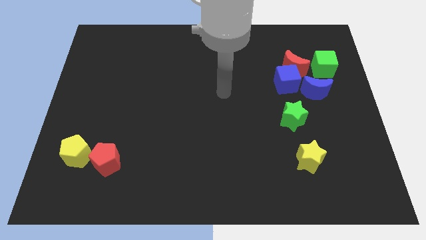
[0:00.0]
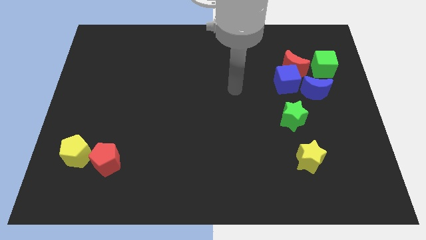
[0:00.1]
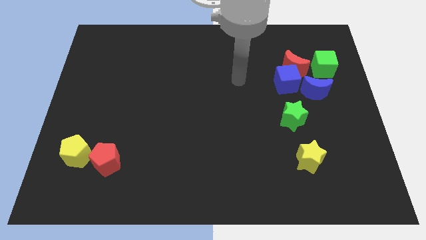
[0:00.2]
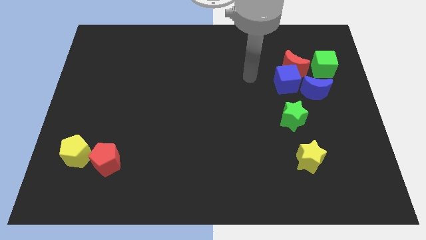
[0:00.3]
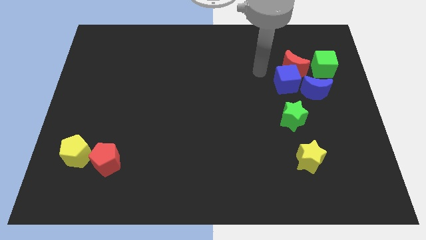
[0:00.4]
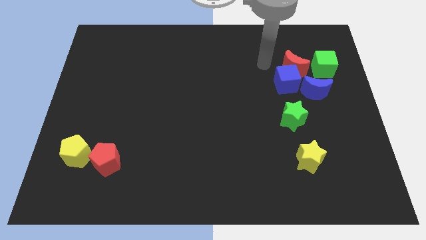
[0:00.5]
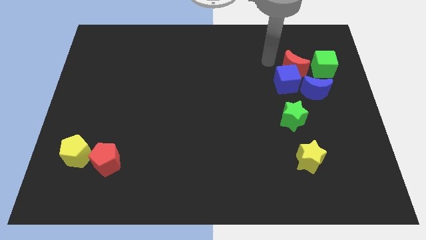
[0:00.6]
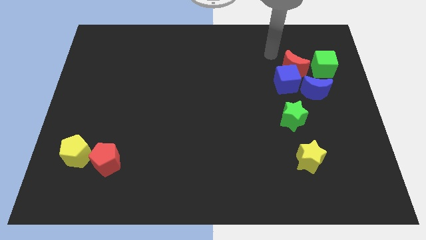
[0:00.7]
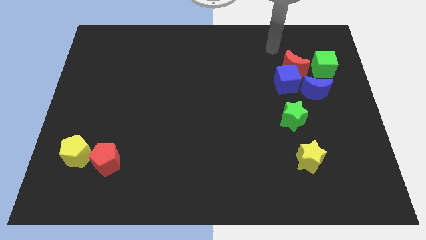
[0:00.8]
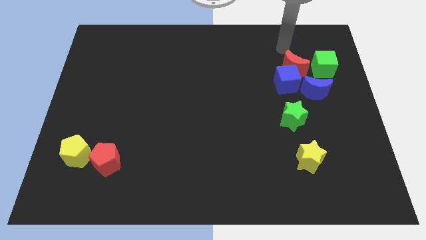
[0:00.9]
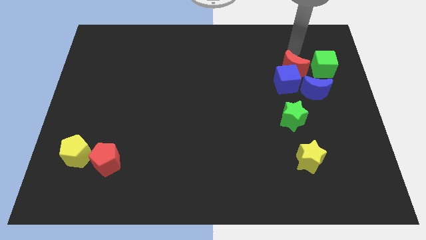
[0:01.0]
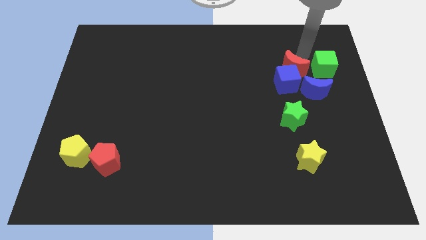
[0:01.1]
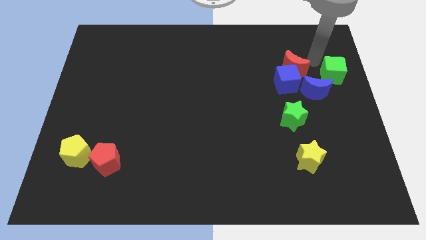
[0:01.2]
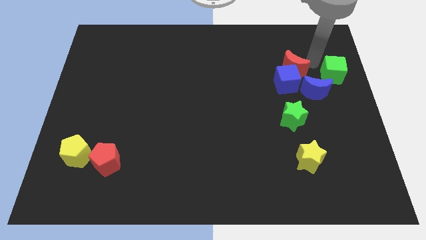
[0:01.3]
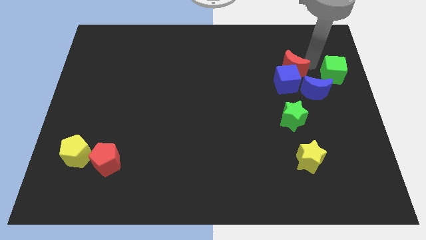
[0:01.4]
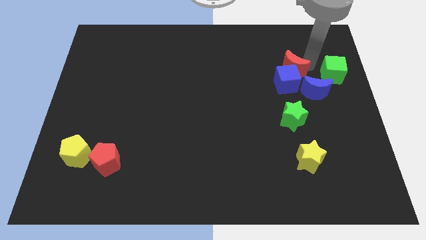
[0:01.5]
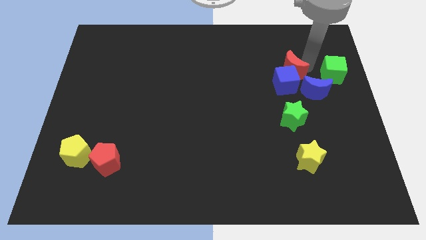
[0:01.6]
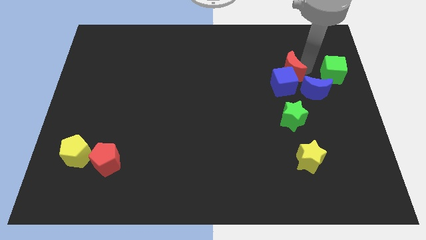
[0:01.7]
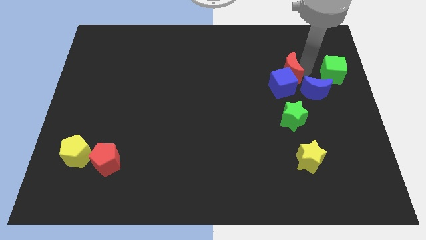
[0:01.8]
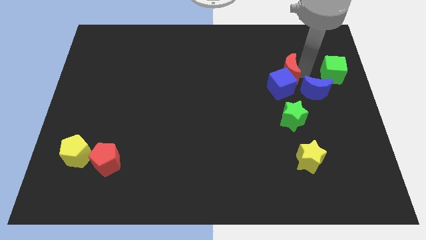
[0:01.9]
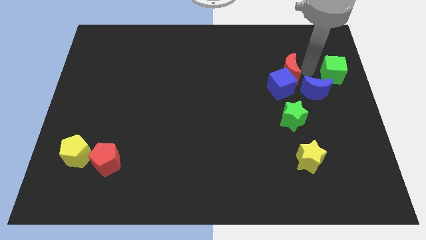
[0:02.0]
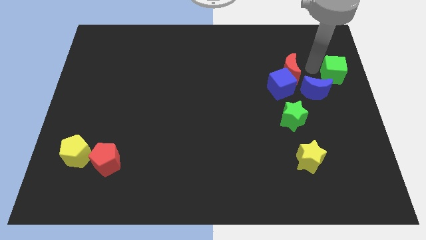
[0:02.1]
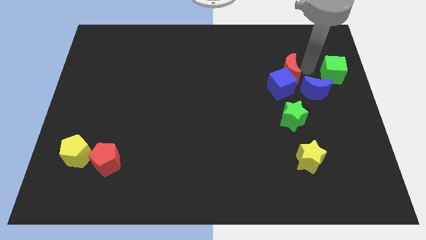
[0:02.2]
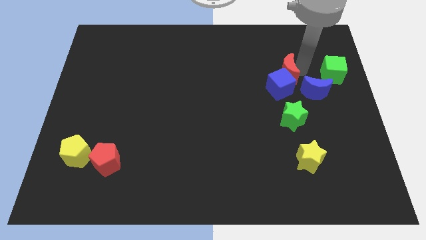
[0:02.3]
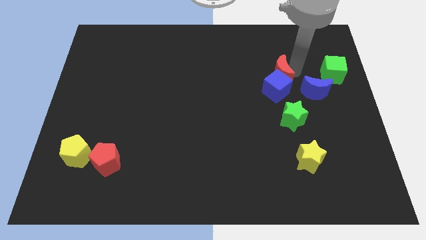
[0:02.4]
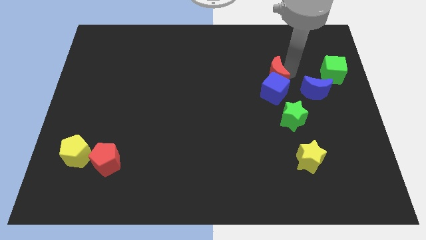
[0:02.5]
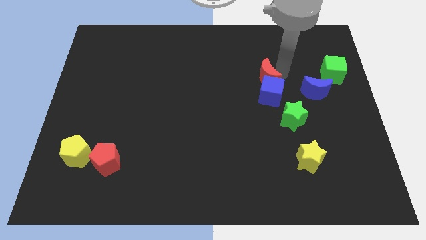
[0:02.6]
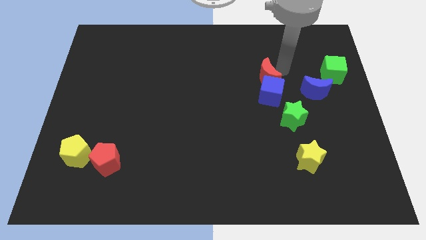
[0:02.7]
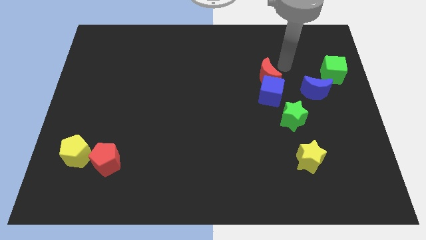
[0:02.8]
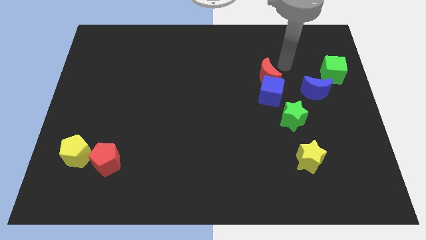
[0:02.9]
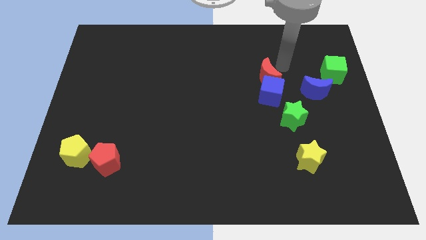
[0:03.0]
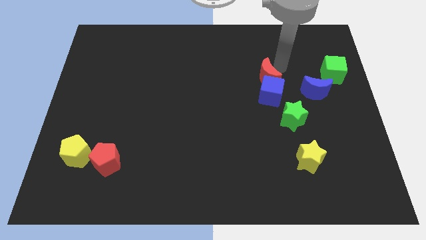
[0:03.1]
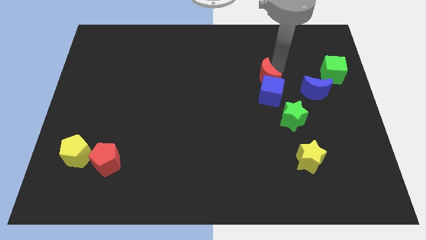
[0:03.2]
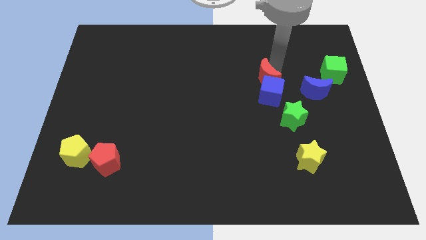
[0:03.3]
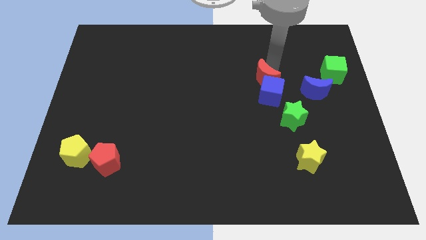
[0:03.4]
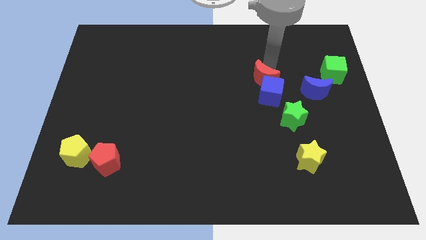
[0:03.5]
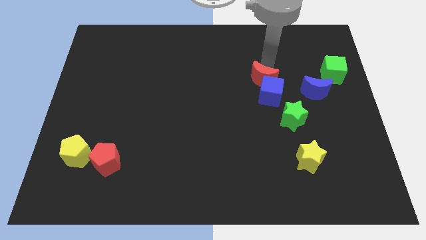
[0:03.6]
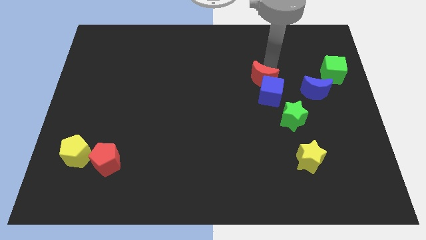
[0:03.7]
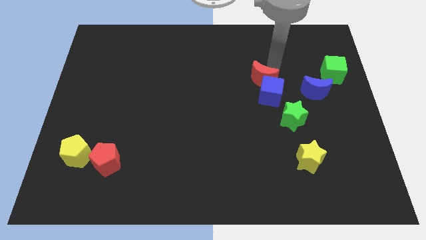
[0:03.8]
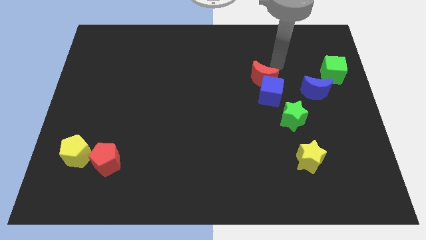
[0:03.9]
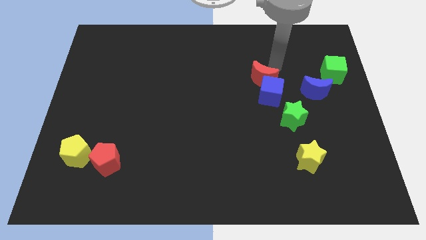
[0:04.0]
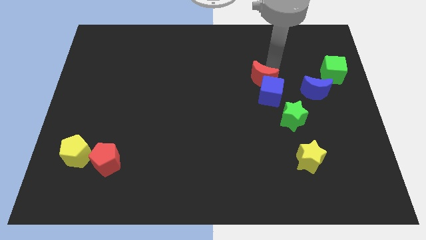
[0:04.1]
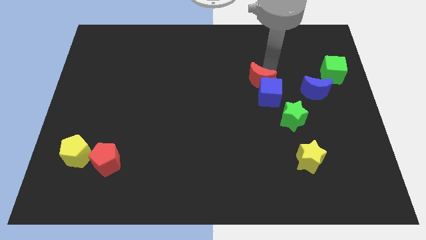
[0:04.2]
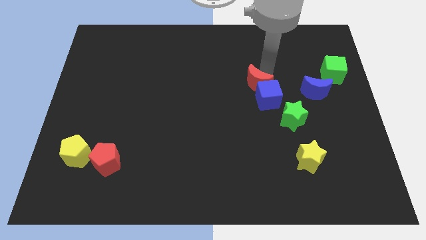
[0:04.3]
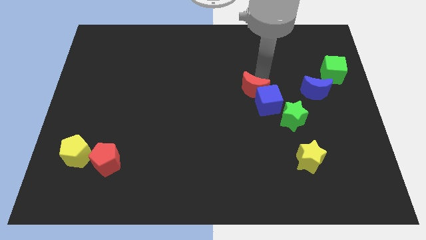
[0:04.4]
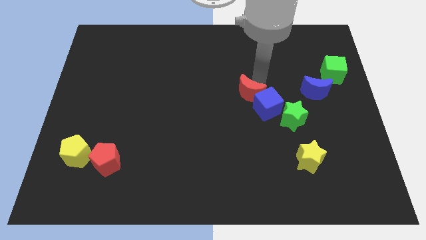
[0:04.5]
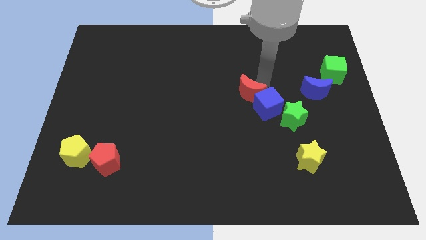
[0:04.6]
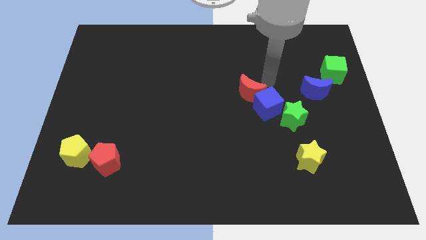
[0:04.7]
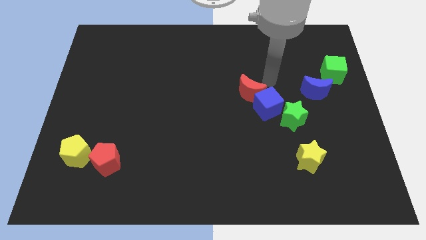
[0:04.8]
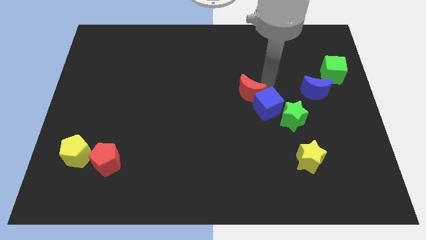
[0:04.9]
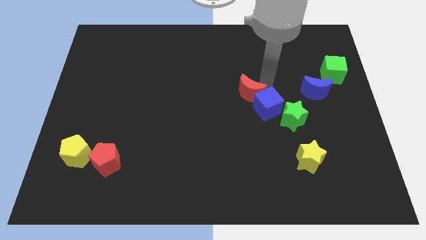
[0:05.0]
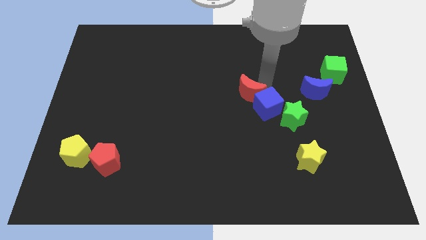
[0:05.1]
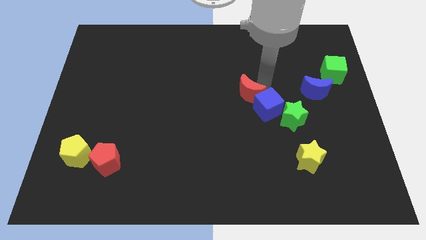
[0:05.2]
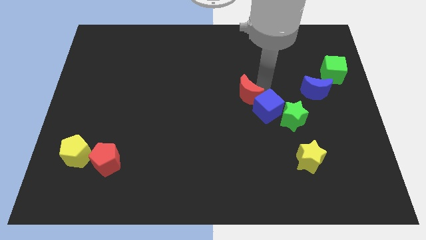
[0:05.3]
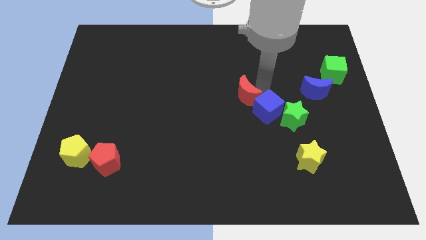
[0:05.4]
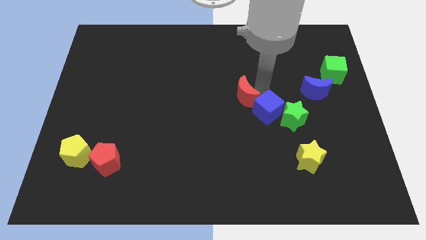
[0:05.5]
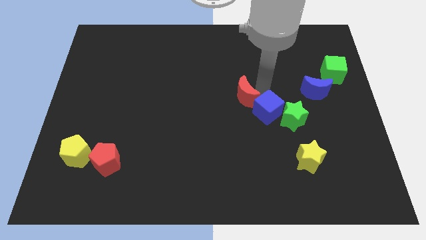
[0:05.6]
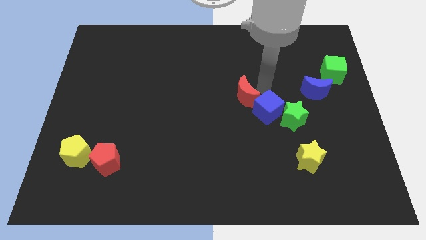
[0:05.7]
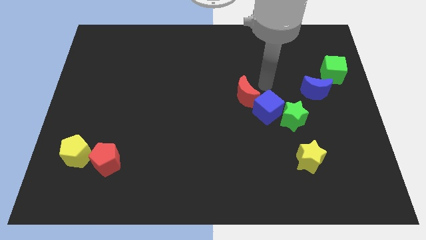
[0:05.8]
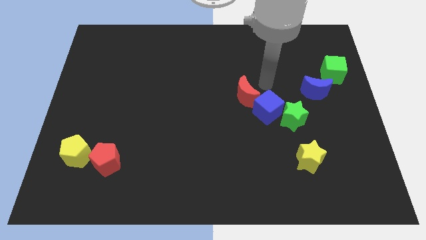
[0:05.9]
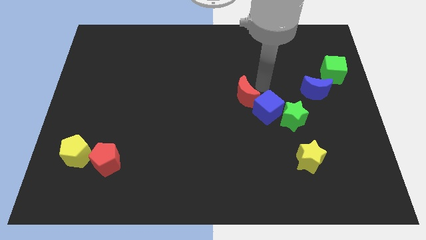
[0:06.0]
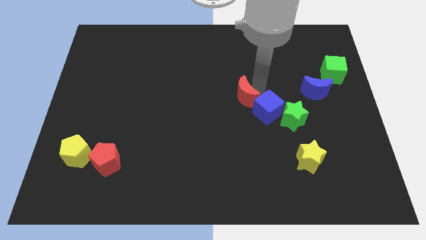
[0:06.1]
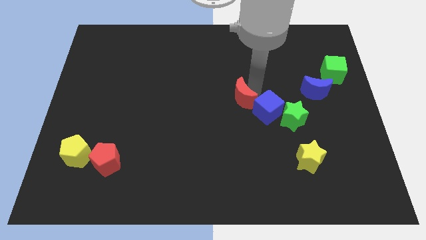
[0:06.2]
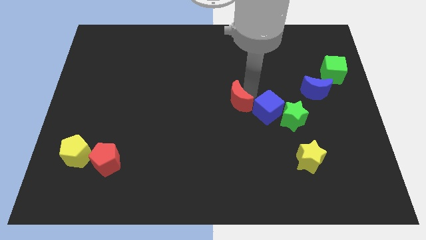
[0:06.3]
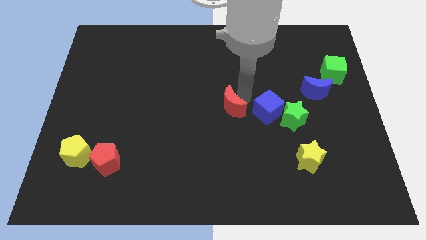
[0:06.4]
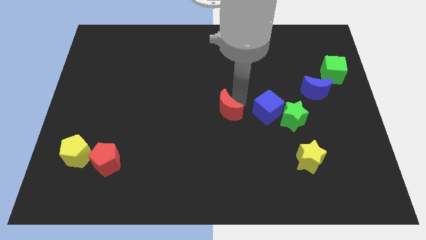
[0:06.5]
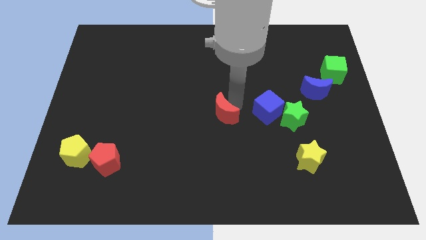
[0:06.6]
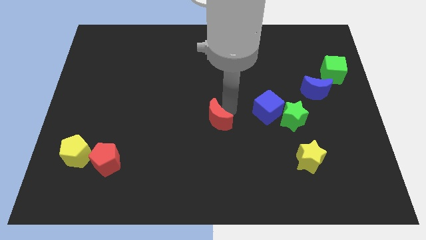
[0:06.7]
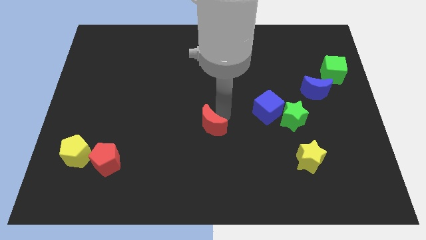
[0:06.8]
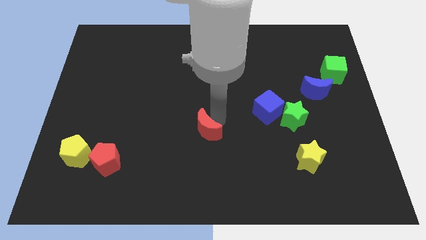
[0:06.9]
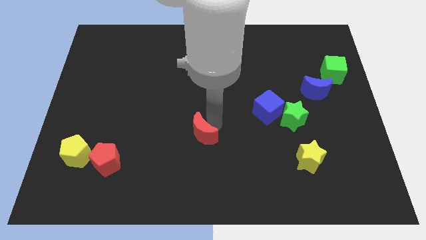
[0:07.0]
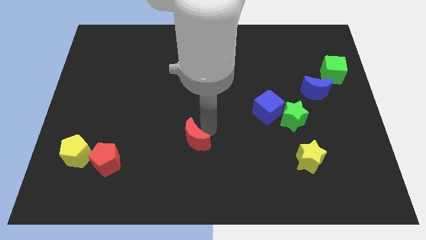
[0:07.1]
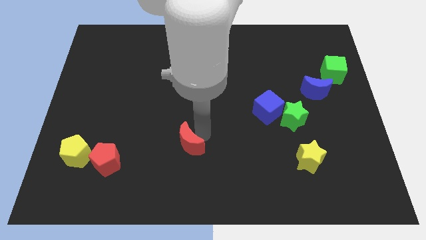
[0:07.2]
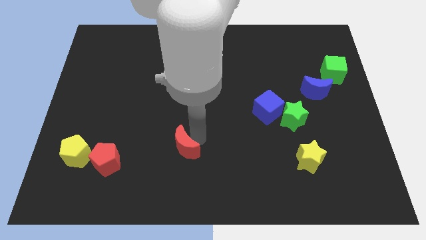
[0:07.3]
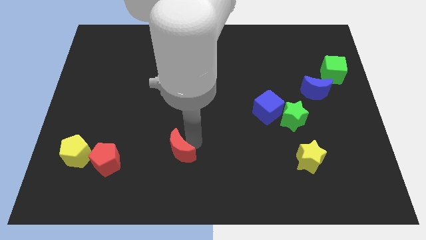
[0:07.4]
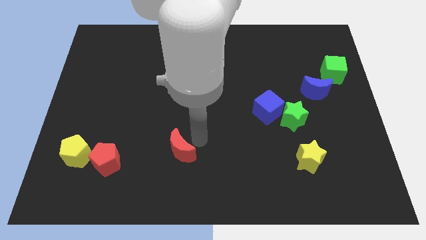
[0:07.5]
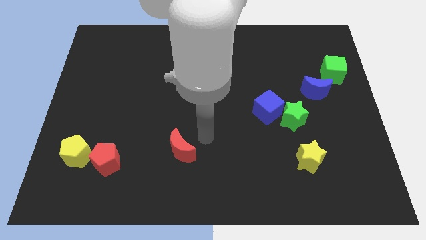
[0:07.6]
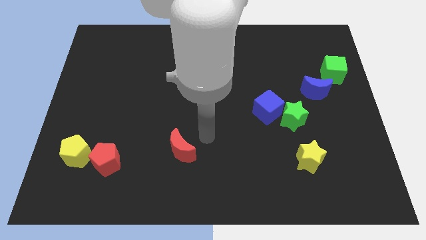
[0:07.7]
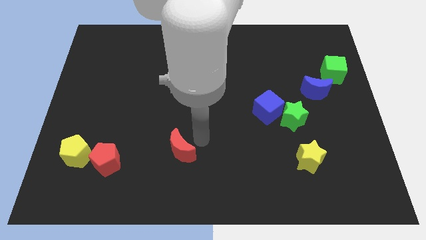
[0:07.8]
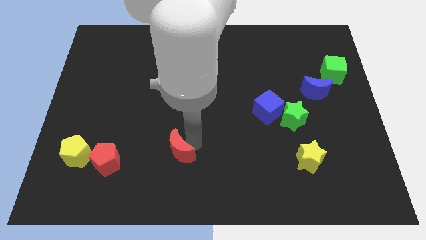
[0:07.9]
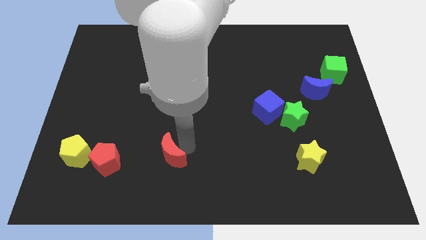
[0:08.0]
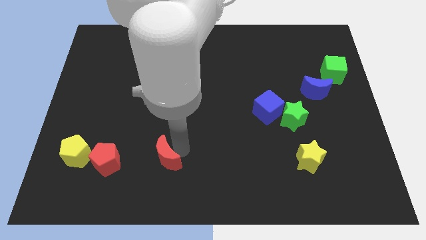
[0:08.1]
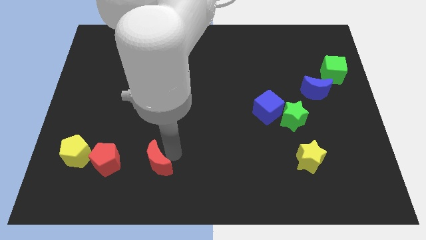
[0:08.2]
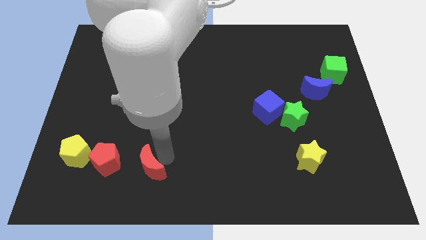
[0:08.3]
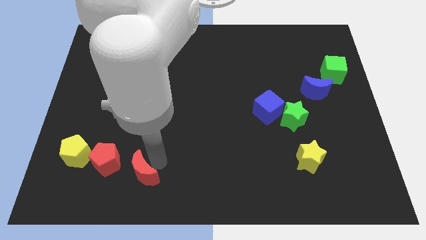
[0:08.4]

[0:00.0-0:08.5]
push the red moon to the bottom right side of the red pentagon
